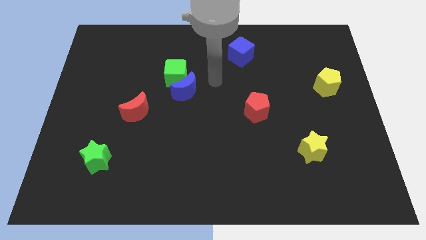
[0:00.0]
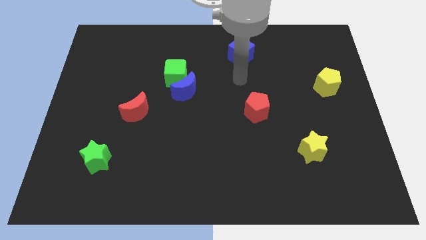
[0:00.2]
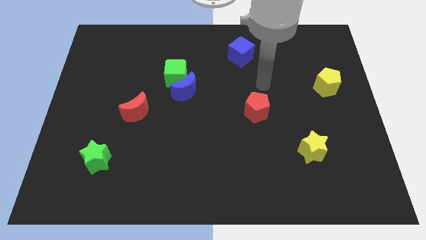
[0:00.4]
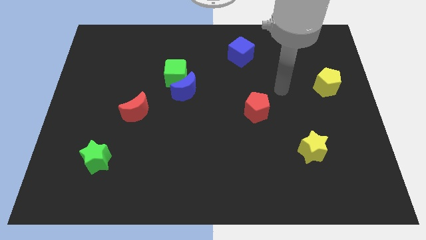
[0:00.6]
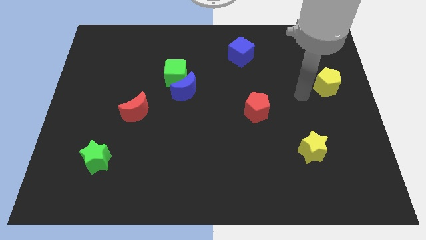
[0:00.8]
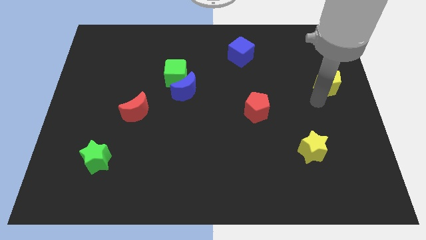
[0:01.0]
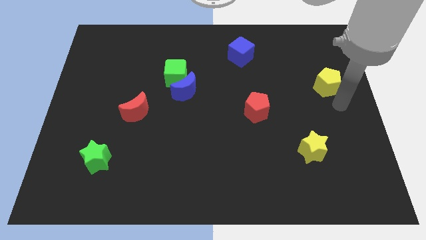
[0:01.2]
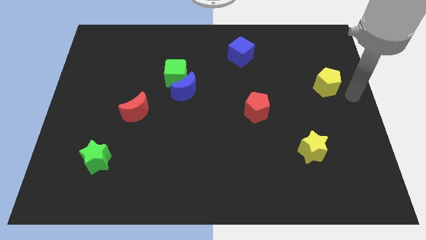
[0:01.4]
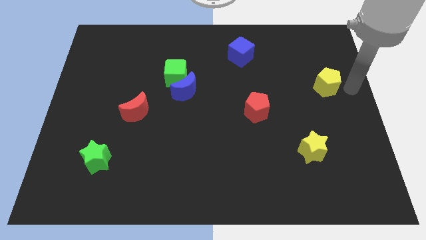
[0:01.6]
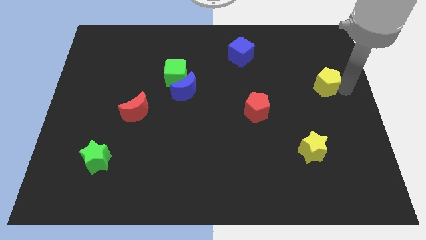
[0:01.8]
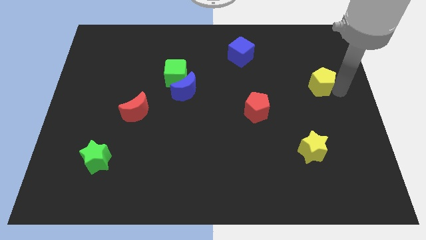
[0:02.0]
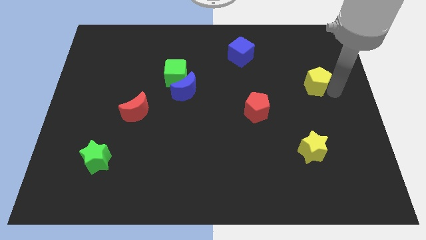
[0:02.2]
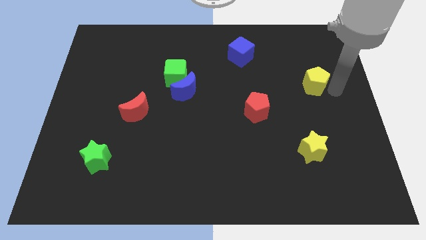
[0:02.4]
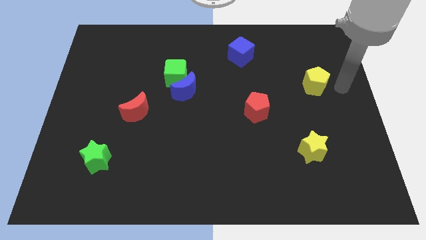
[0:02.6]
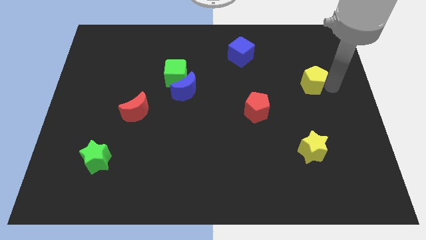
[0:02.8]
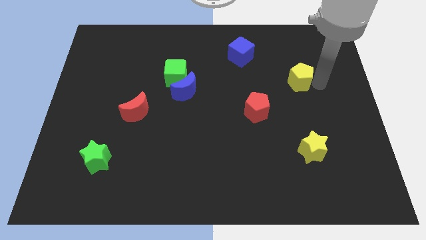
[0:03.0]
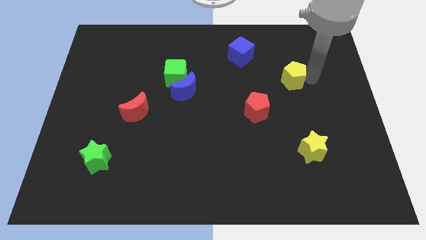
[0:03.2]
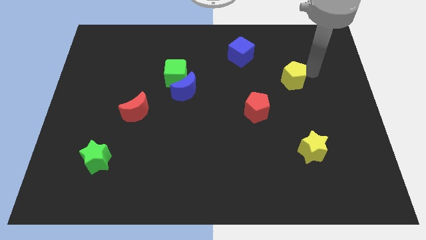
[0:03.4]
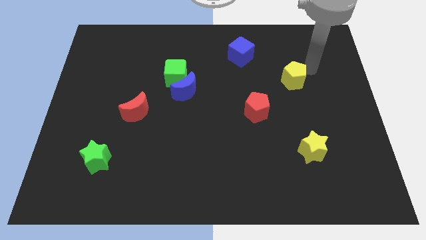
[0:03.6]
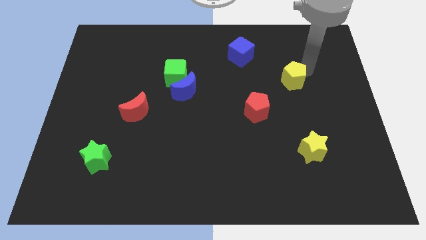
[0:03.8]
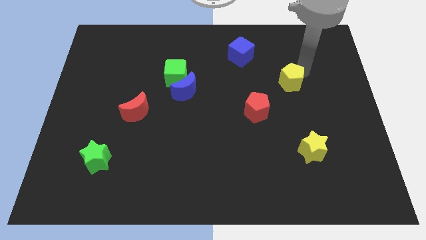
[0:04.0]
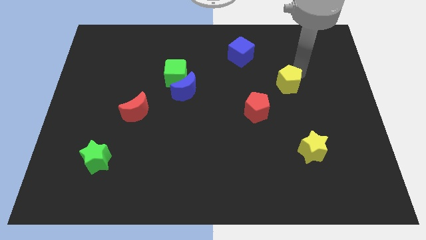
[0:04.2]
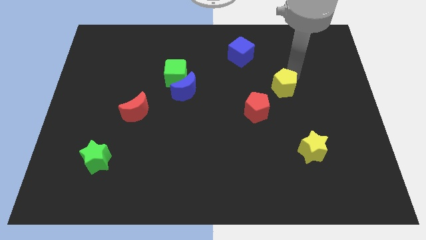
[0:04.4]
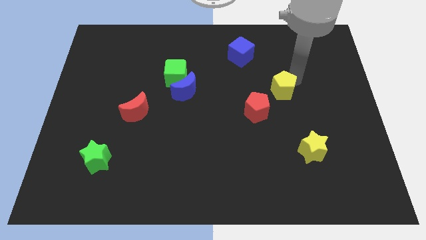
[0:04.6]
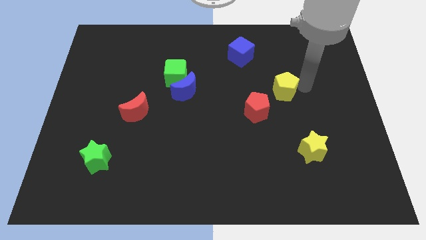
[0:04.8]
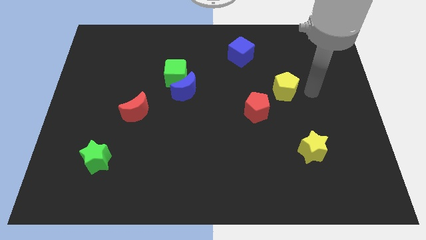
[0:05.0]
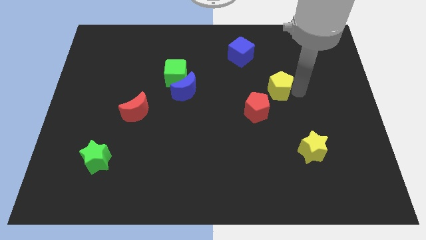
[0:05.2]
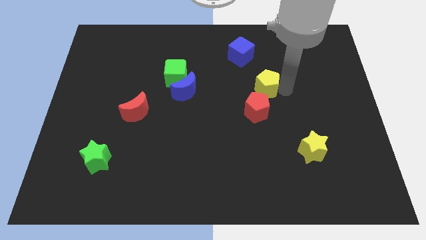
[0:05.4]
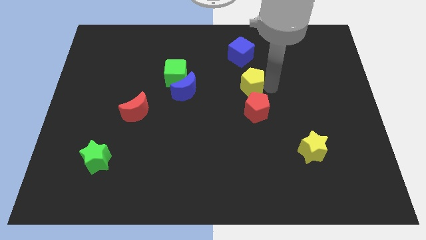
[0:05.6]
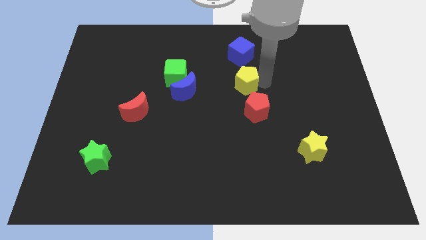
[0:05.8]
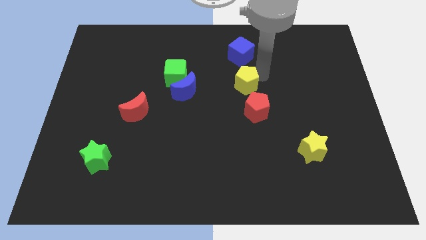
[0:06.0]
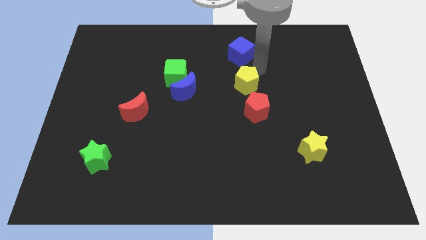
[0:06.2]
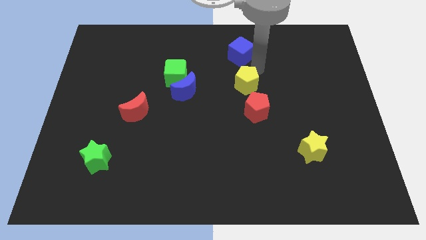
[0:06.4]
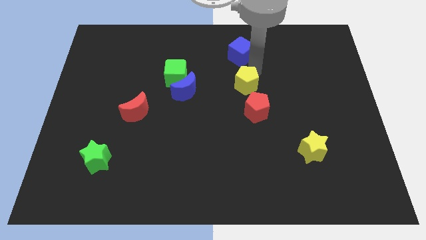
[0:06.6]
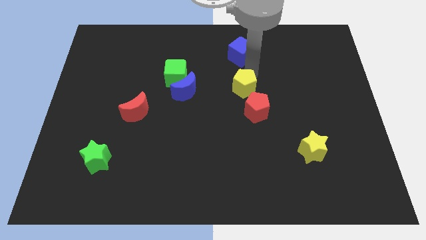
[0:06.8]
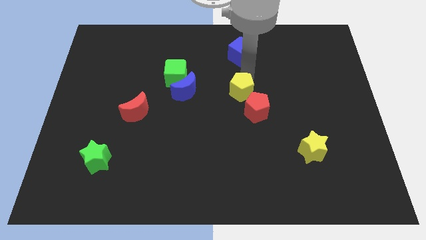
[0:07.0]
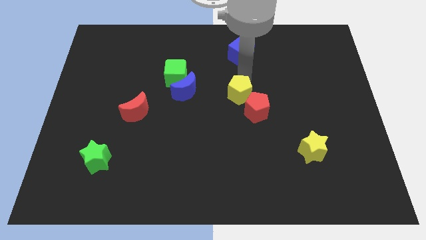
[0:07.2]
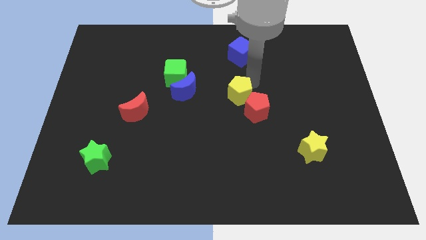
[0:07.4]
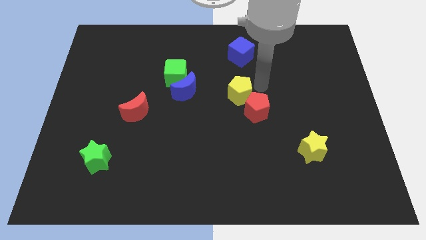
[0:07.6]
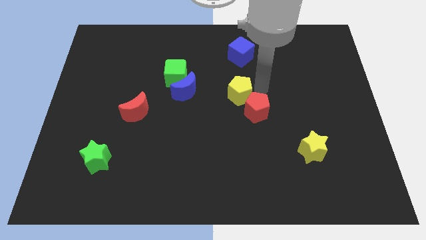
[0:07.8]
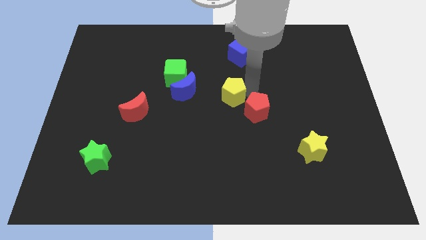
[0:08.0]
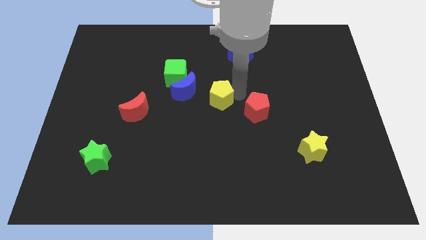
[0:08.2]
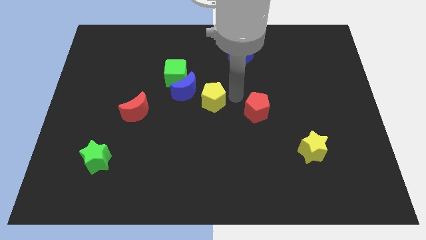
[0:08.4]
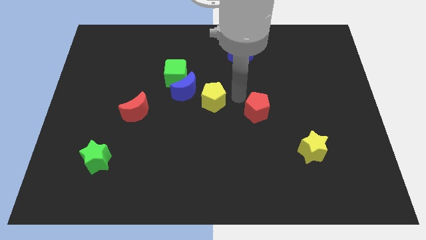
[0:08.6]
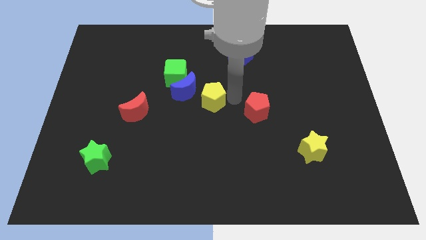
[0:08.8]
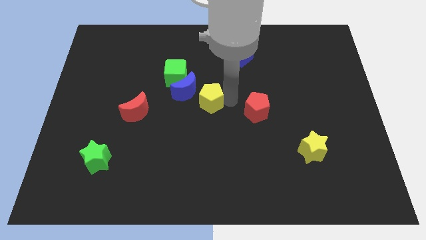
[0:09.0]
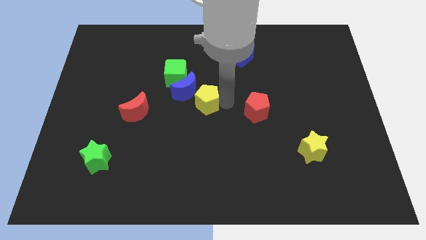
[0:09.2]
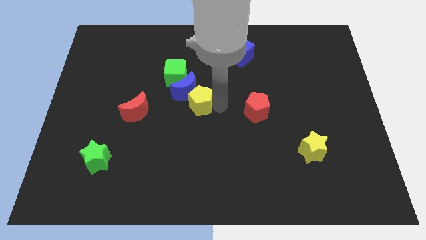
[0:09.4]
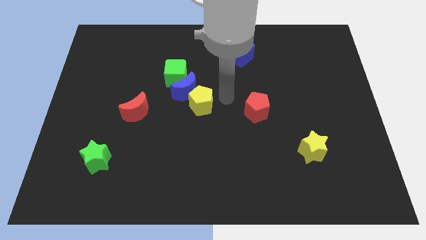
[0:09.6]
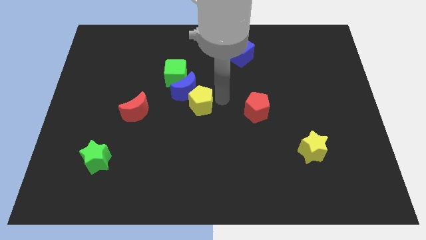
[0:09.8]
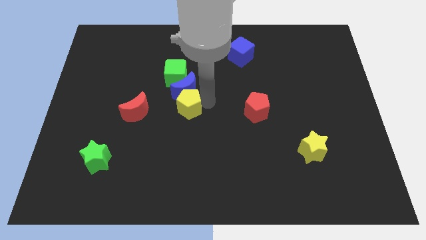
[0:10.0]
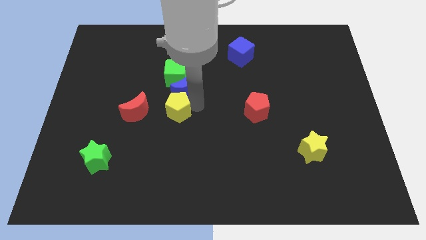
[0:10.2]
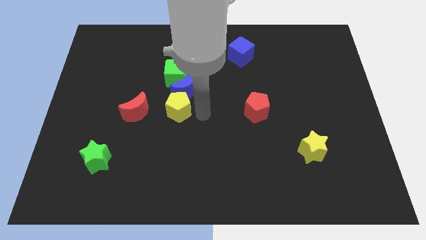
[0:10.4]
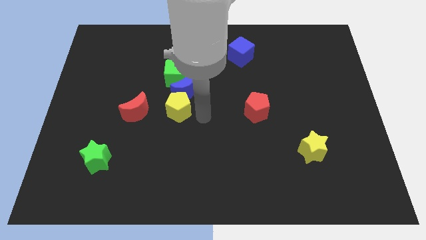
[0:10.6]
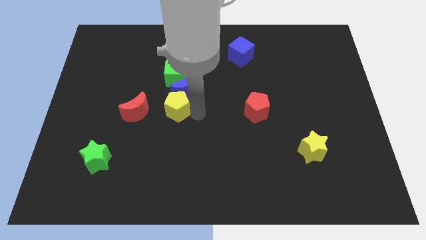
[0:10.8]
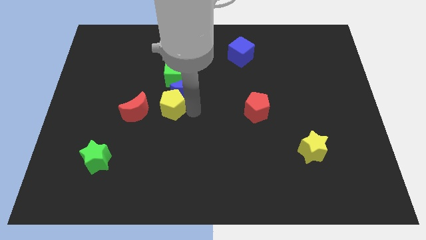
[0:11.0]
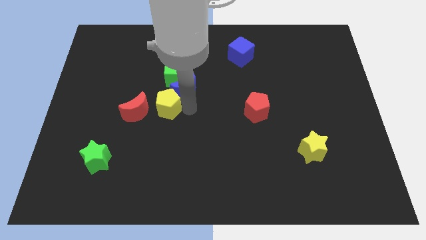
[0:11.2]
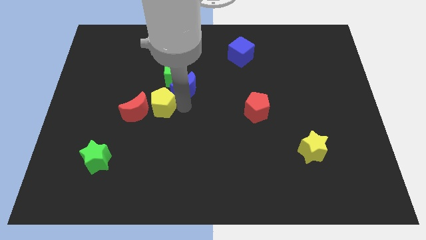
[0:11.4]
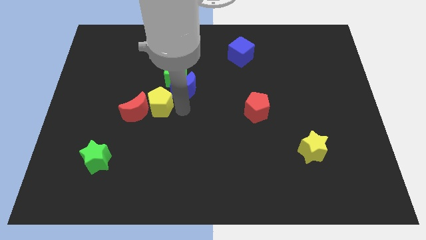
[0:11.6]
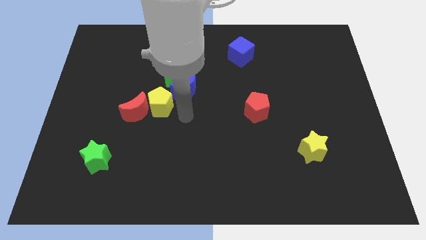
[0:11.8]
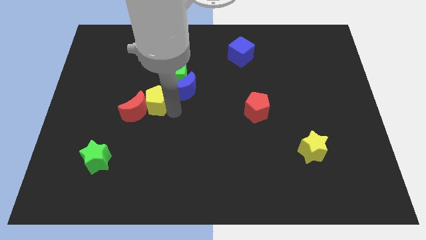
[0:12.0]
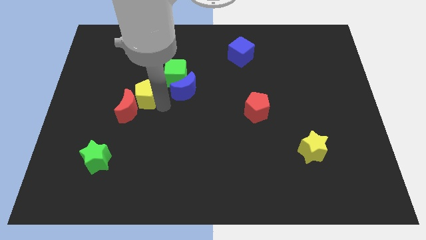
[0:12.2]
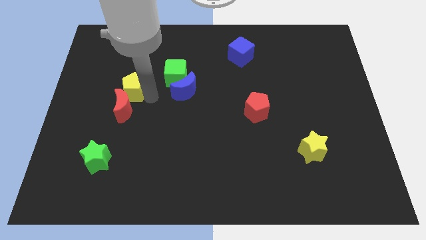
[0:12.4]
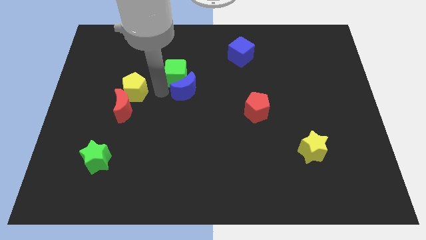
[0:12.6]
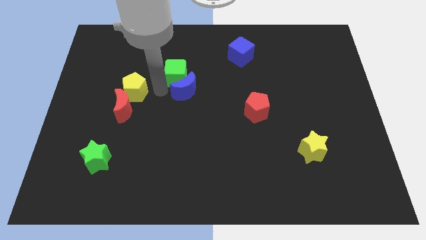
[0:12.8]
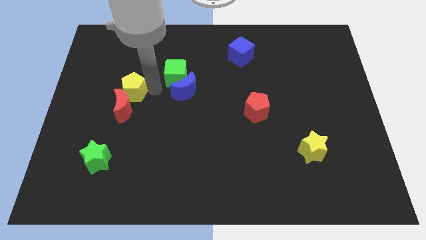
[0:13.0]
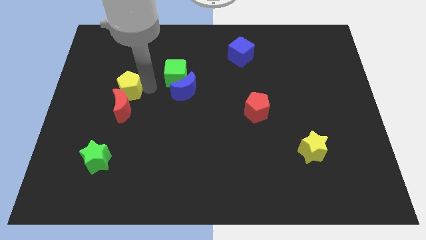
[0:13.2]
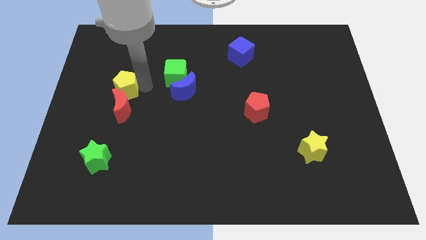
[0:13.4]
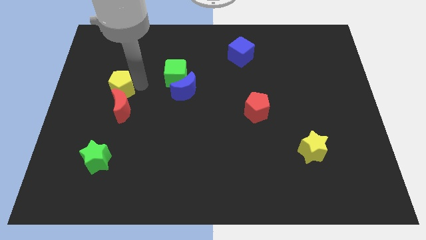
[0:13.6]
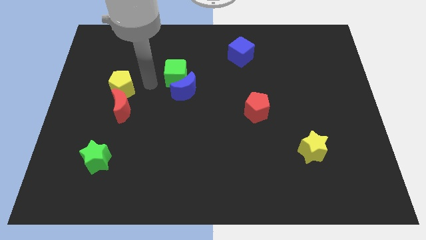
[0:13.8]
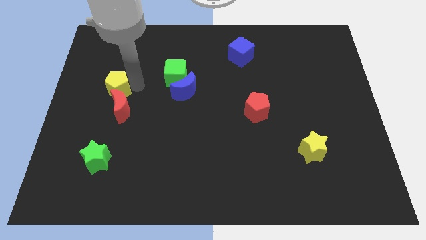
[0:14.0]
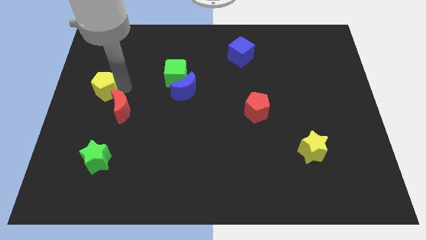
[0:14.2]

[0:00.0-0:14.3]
slide the yellow pentagon to the left side
